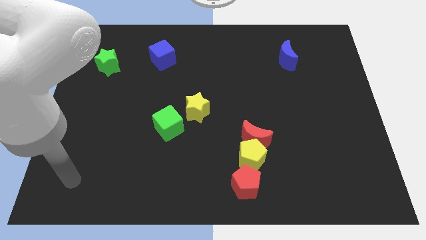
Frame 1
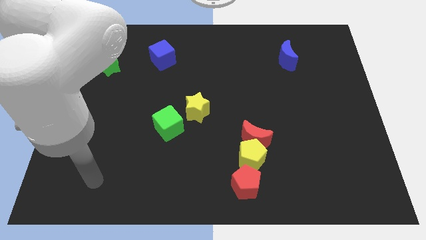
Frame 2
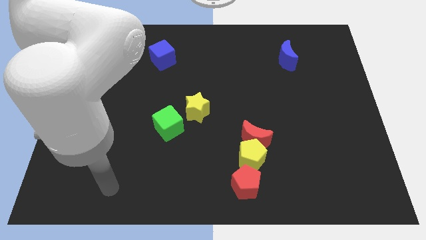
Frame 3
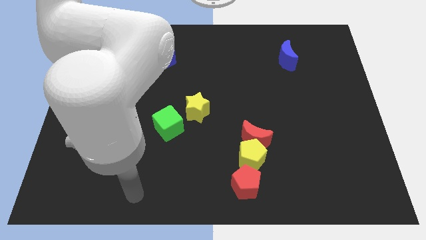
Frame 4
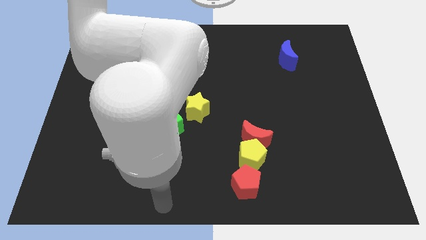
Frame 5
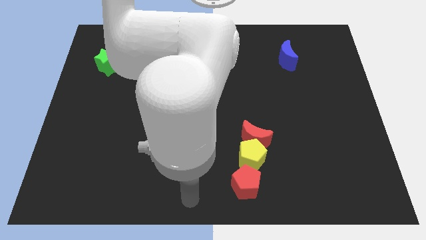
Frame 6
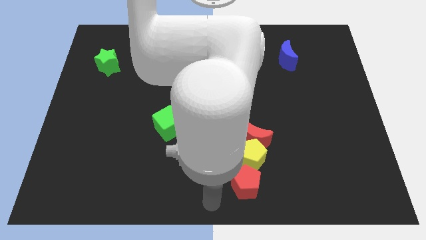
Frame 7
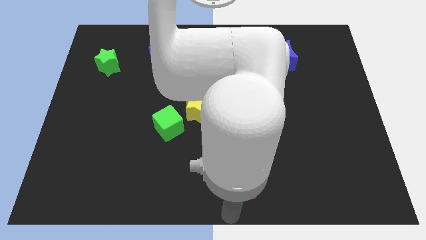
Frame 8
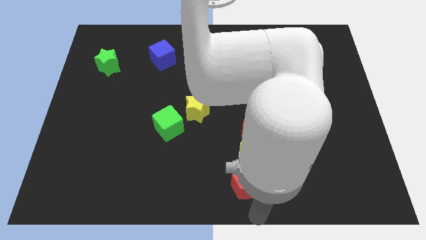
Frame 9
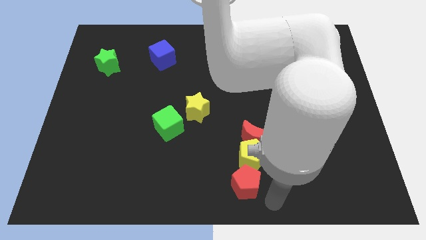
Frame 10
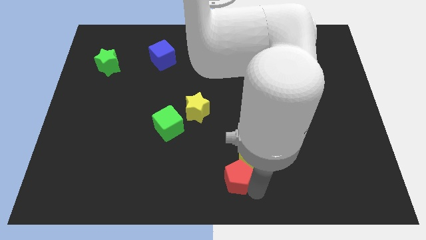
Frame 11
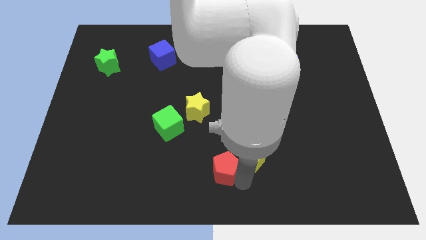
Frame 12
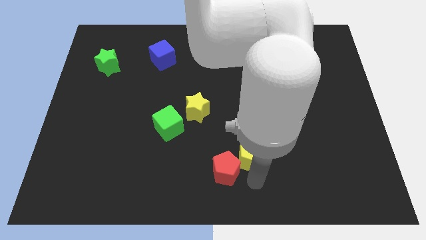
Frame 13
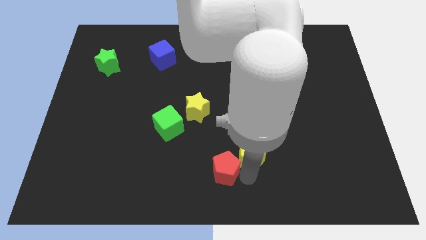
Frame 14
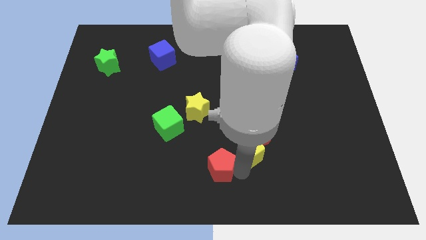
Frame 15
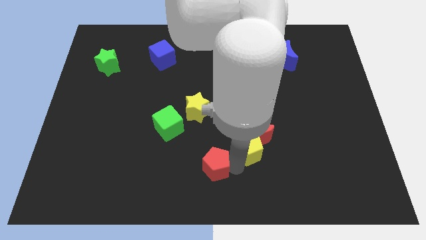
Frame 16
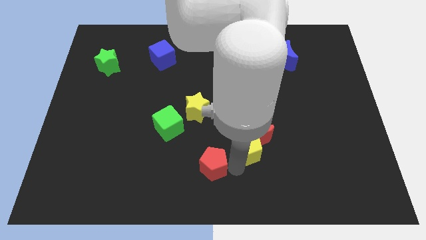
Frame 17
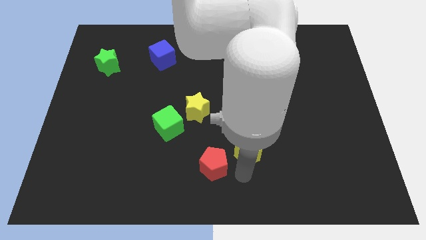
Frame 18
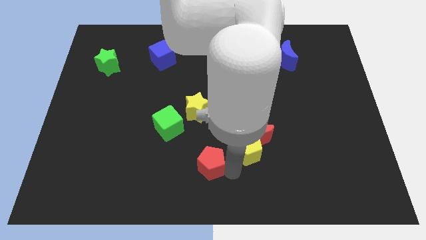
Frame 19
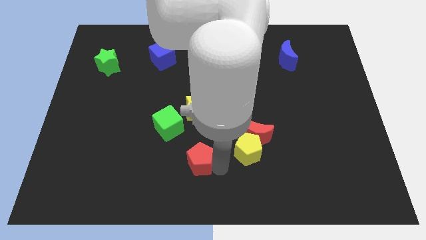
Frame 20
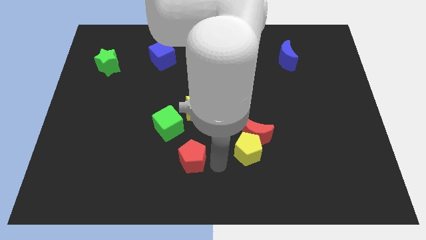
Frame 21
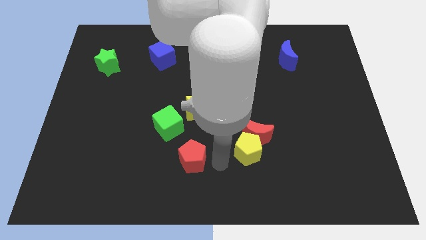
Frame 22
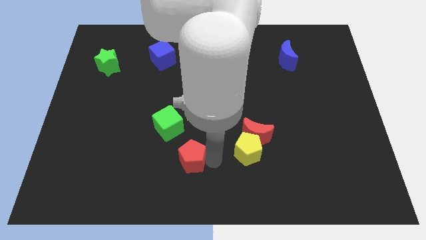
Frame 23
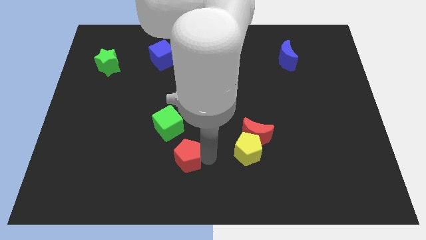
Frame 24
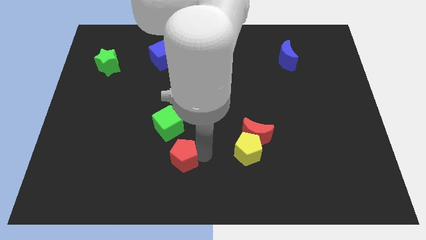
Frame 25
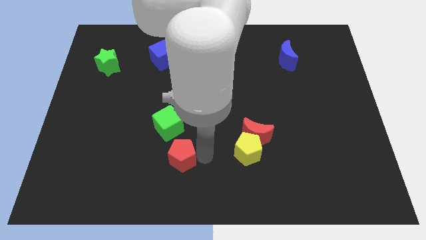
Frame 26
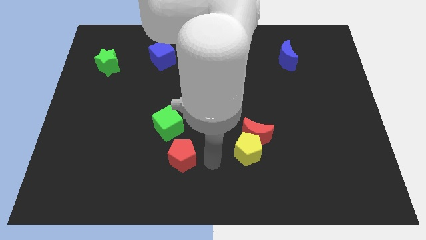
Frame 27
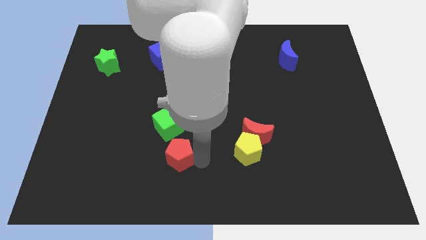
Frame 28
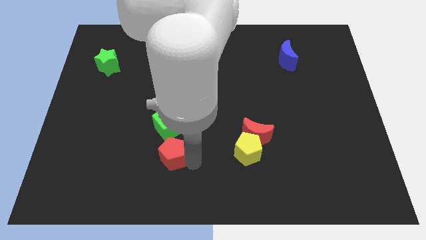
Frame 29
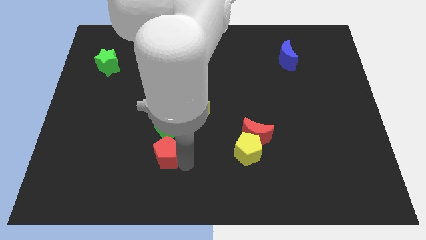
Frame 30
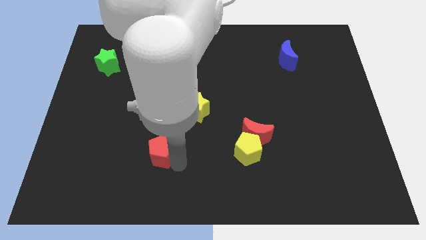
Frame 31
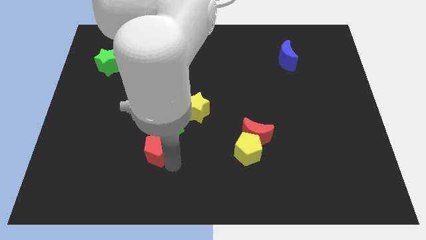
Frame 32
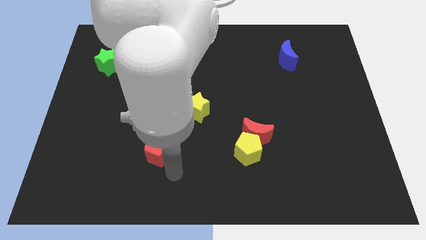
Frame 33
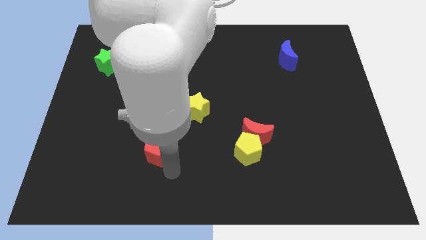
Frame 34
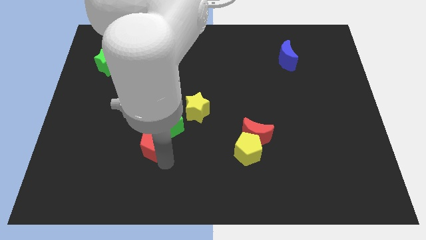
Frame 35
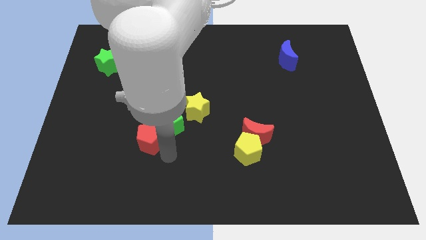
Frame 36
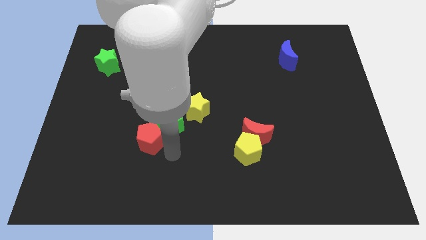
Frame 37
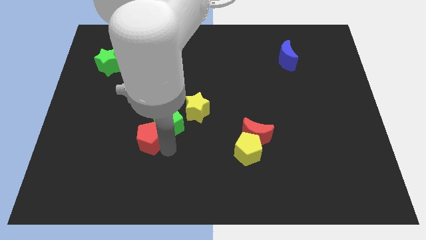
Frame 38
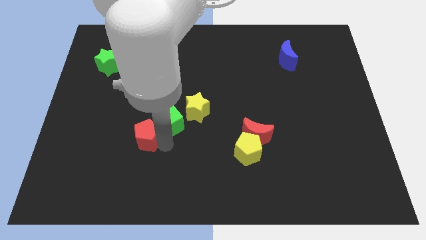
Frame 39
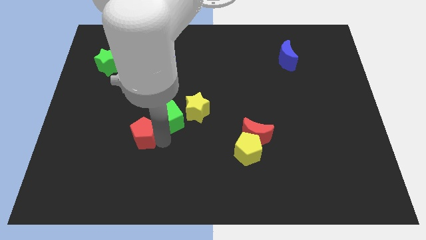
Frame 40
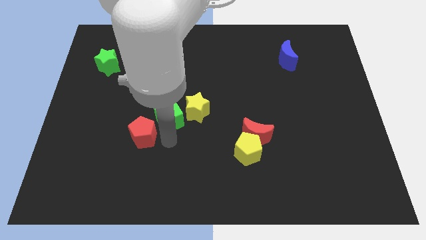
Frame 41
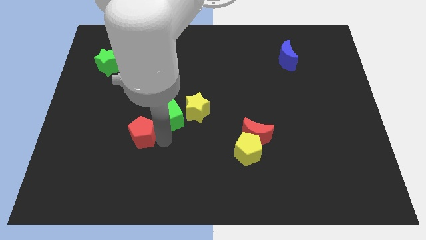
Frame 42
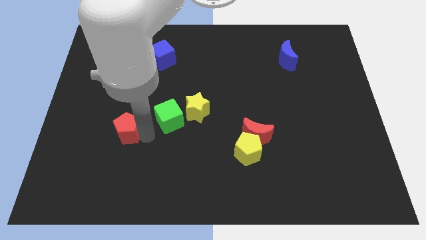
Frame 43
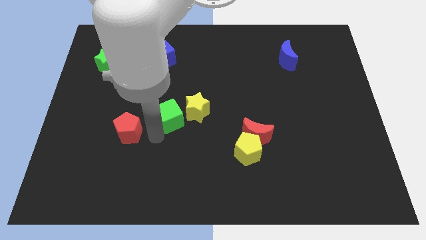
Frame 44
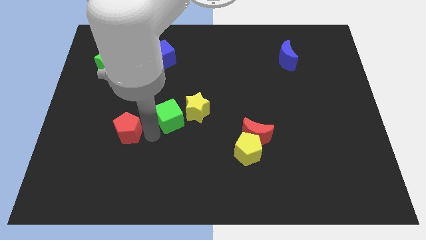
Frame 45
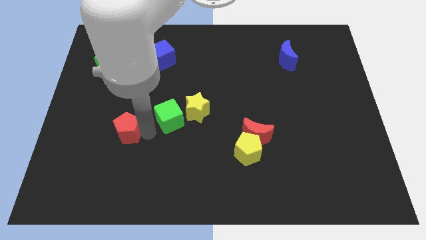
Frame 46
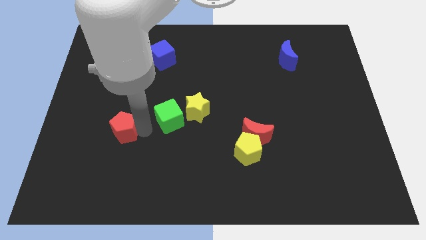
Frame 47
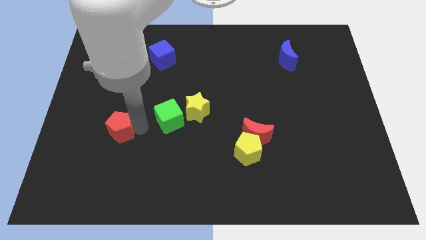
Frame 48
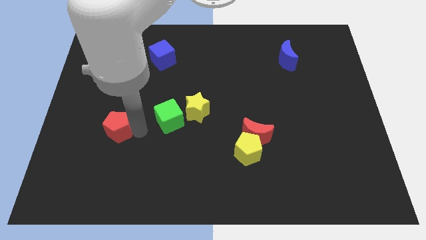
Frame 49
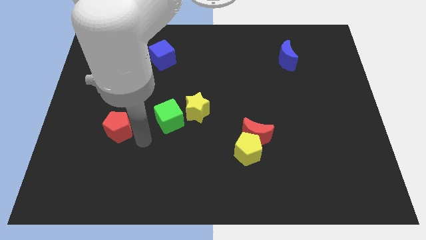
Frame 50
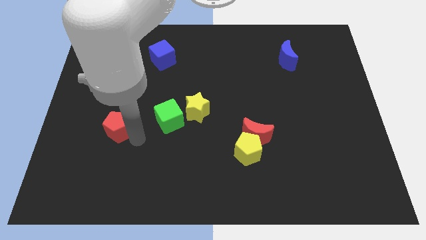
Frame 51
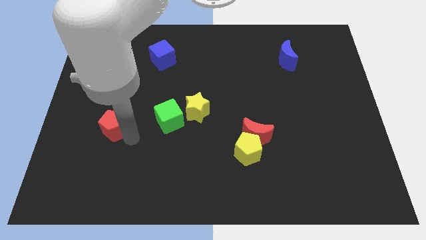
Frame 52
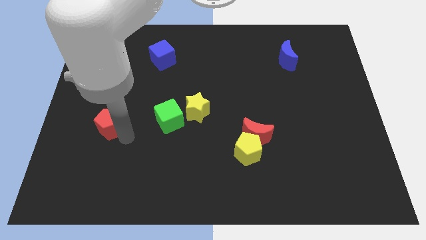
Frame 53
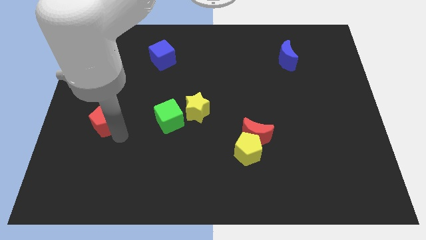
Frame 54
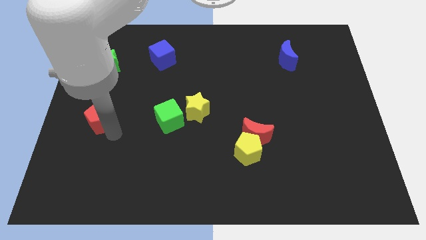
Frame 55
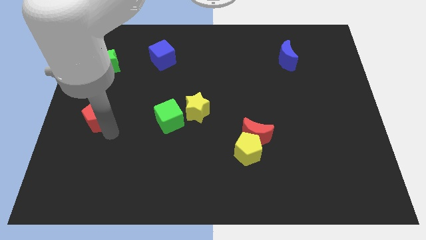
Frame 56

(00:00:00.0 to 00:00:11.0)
push the red pentagon to the left side

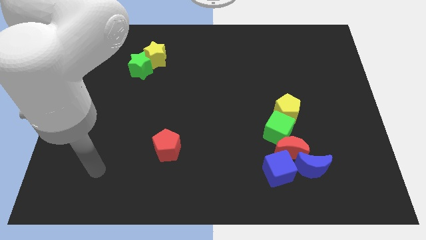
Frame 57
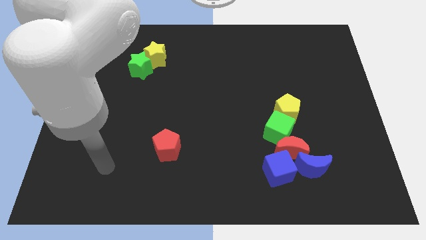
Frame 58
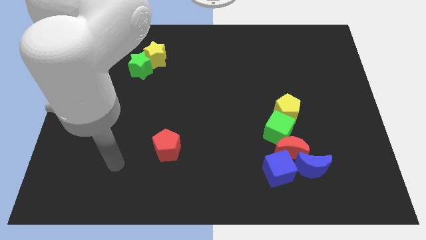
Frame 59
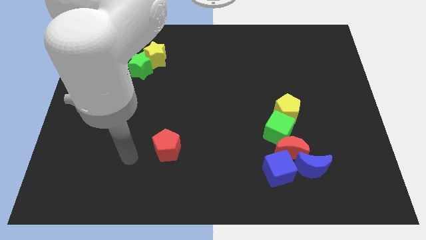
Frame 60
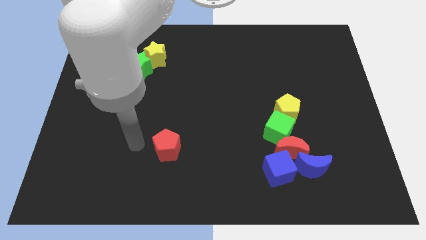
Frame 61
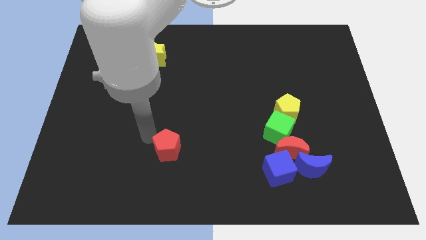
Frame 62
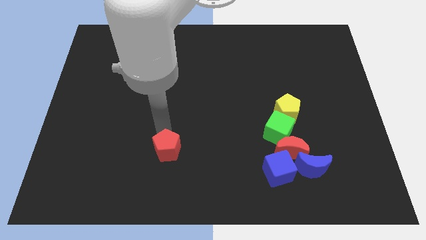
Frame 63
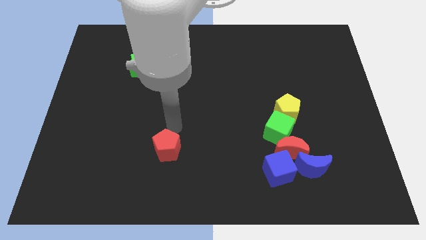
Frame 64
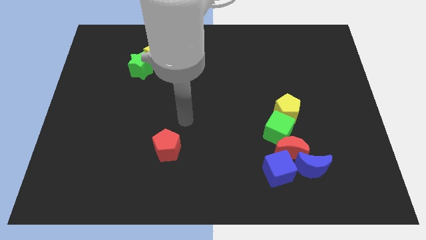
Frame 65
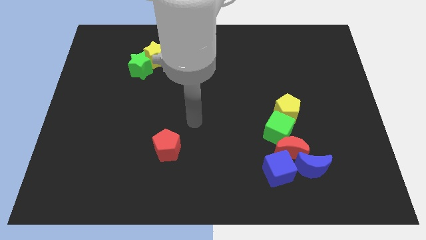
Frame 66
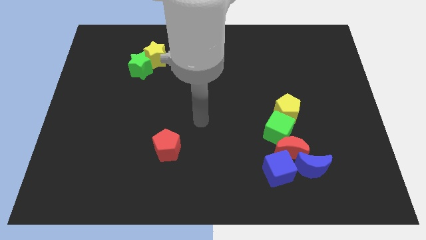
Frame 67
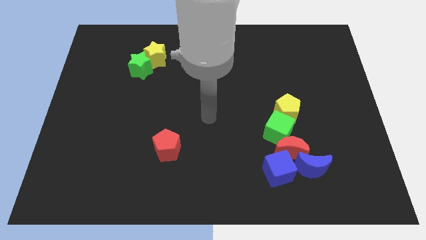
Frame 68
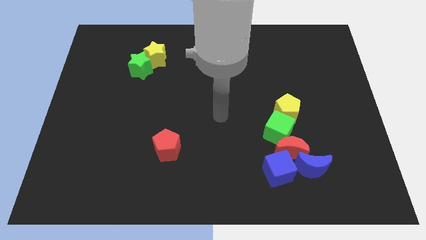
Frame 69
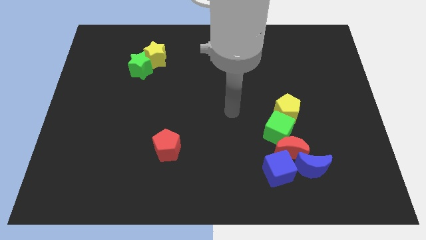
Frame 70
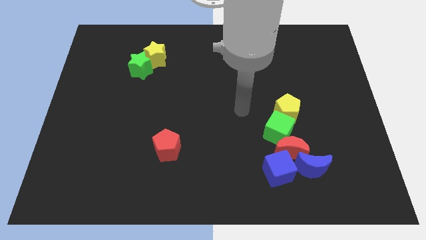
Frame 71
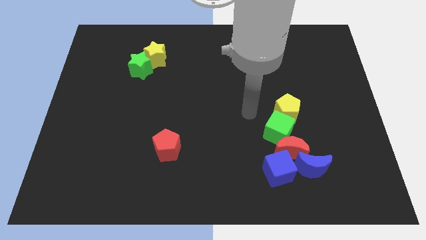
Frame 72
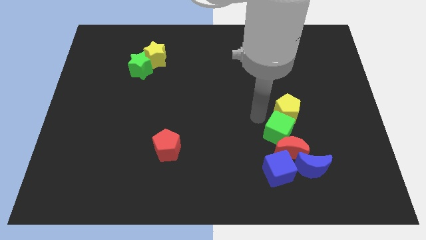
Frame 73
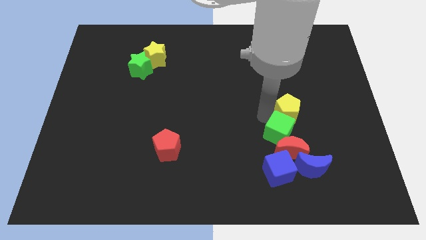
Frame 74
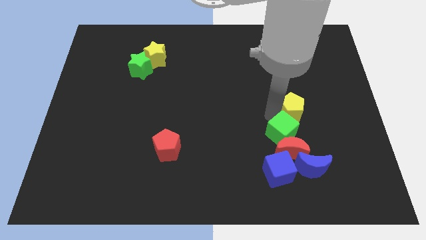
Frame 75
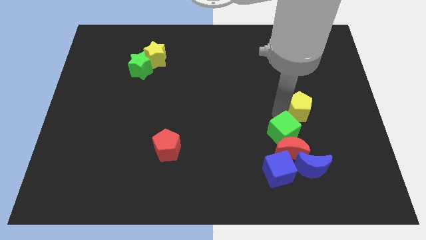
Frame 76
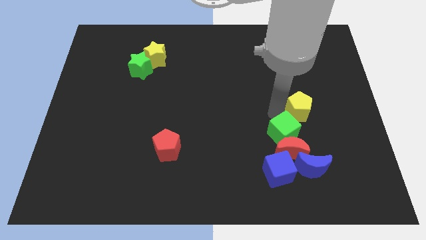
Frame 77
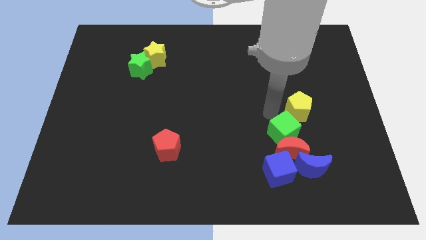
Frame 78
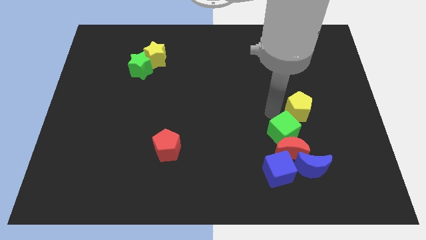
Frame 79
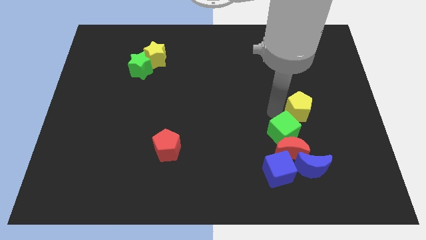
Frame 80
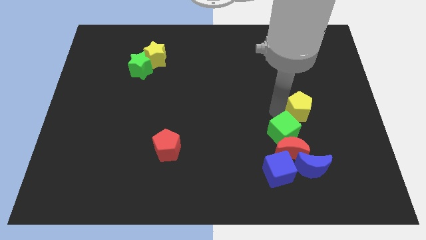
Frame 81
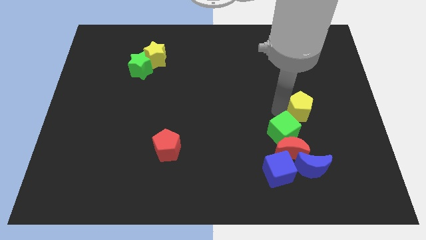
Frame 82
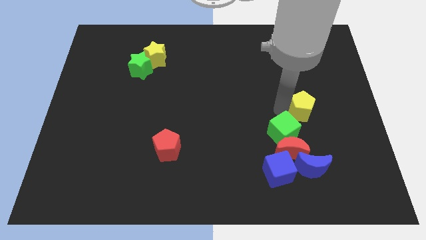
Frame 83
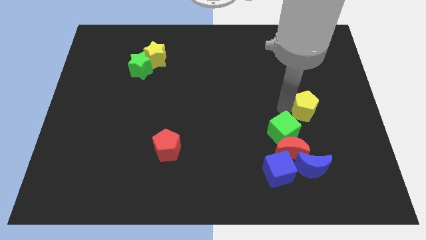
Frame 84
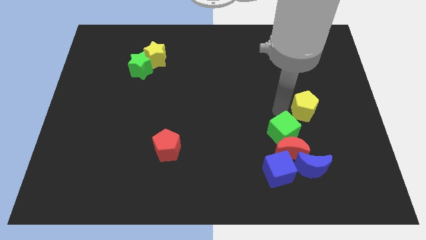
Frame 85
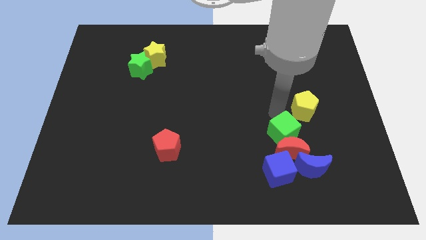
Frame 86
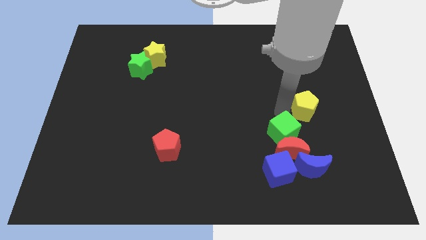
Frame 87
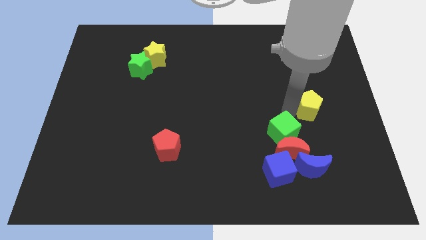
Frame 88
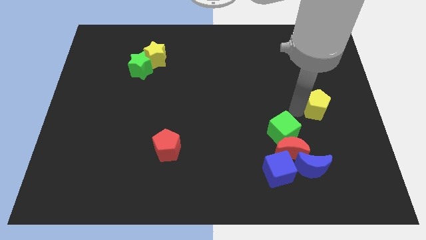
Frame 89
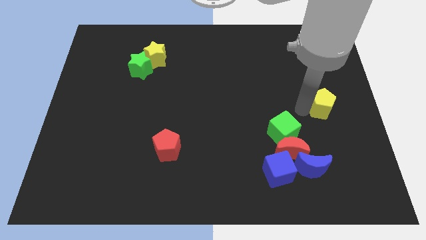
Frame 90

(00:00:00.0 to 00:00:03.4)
put the yellow pentagon to the right side of the board
